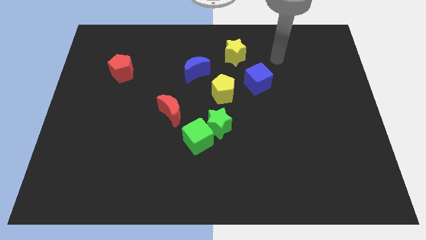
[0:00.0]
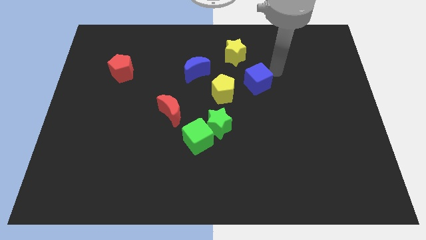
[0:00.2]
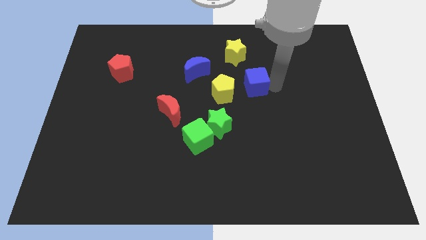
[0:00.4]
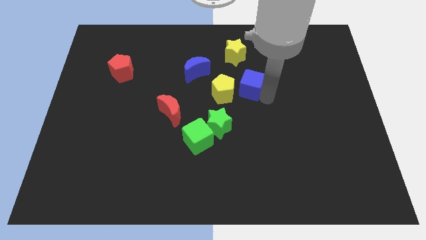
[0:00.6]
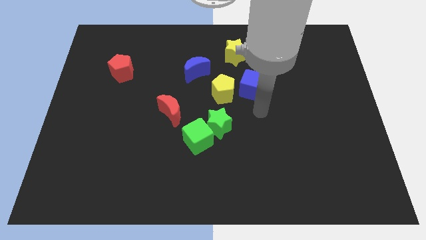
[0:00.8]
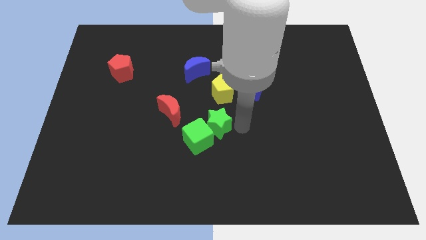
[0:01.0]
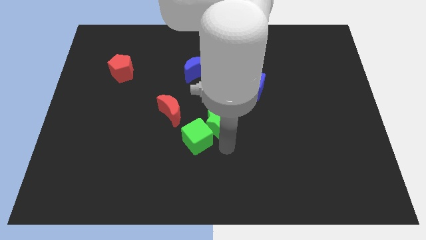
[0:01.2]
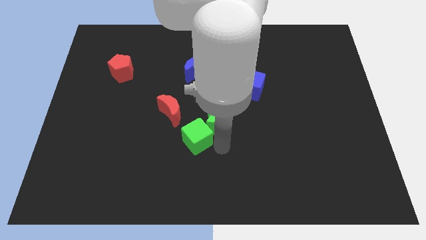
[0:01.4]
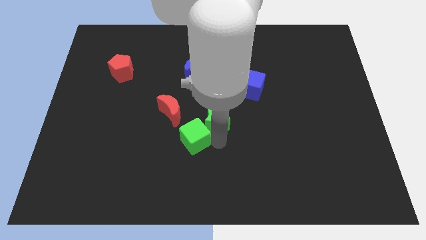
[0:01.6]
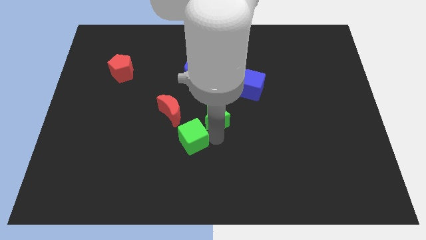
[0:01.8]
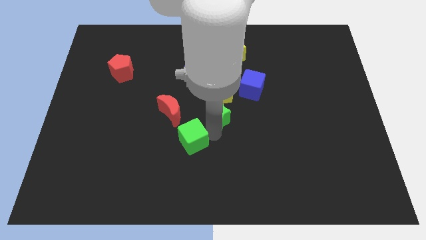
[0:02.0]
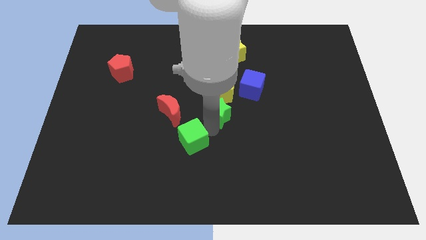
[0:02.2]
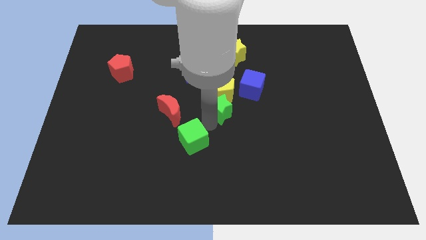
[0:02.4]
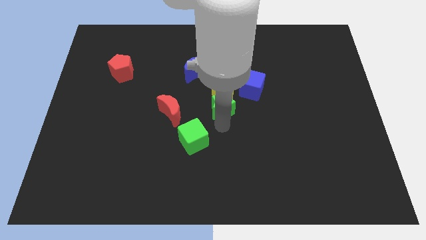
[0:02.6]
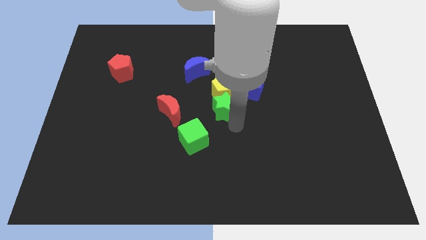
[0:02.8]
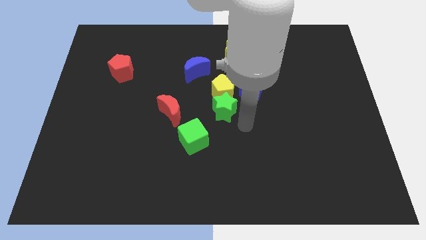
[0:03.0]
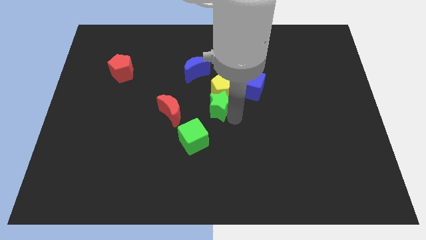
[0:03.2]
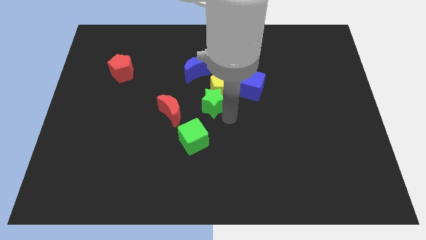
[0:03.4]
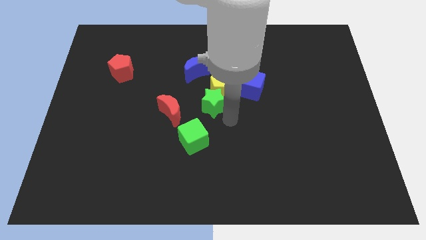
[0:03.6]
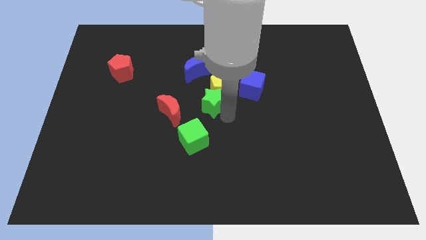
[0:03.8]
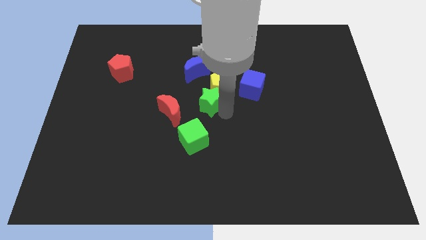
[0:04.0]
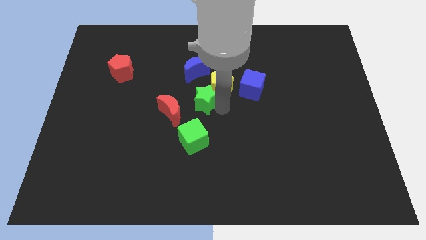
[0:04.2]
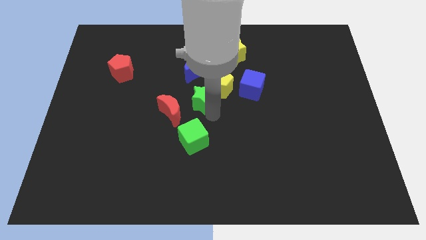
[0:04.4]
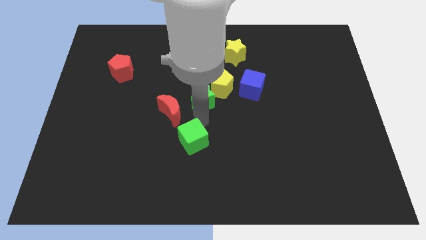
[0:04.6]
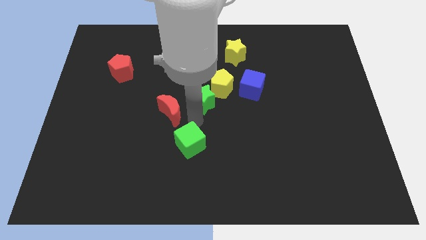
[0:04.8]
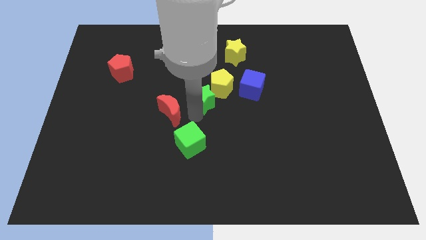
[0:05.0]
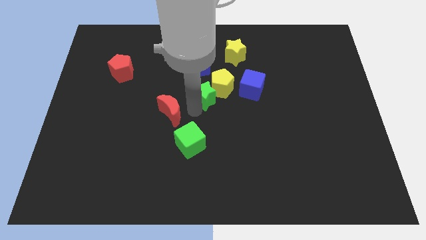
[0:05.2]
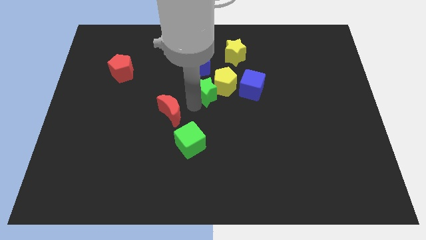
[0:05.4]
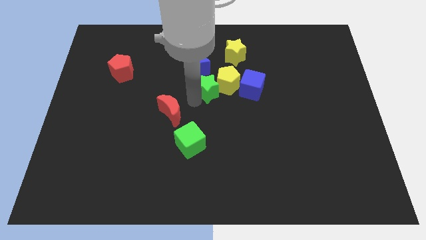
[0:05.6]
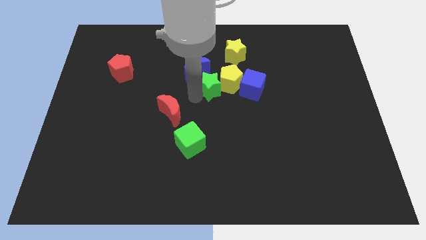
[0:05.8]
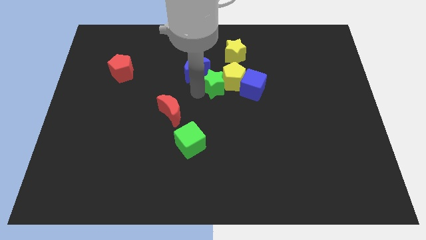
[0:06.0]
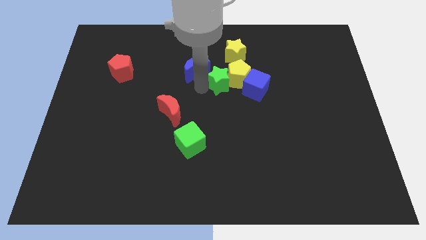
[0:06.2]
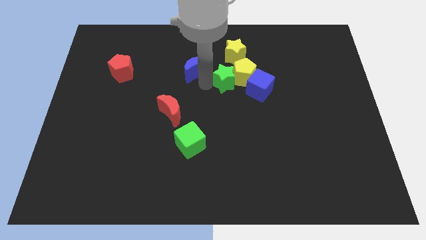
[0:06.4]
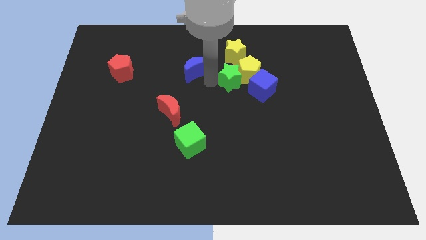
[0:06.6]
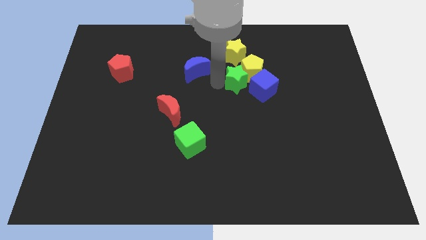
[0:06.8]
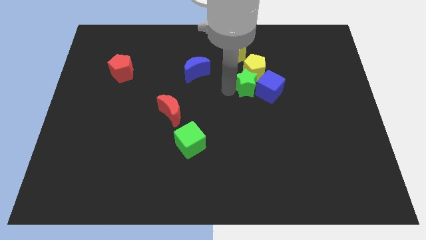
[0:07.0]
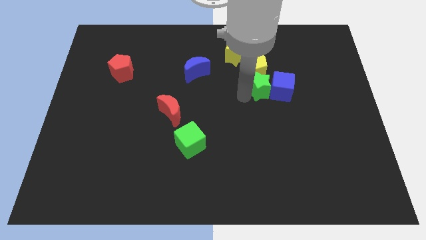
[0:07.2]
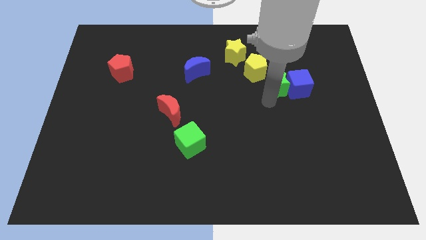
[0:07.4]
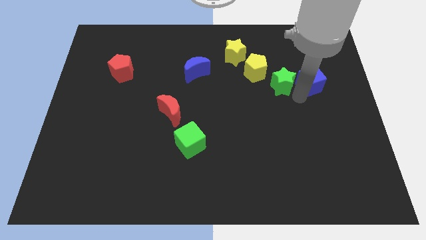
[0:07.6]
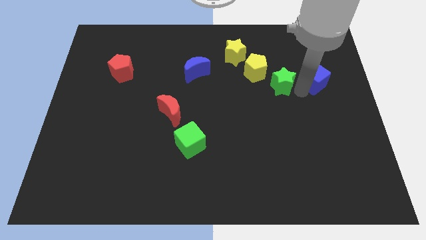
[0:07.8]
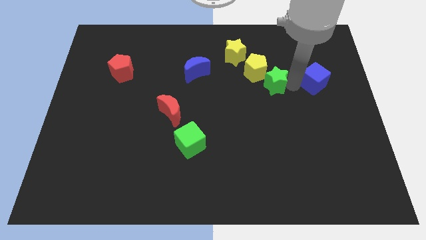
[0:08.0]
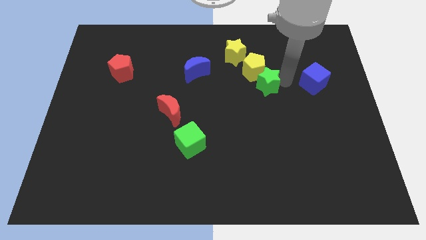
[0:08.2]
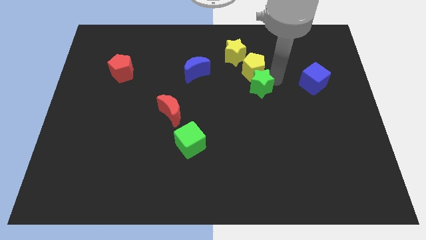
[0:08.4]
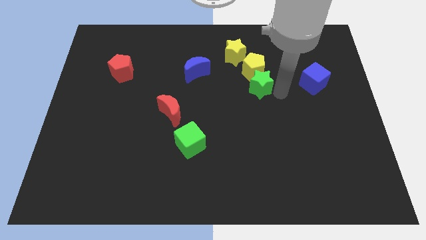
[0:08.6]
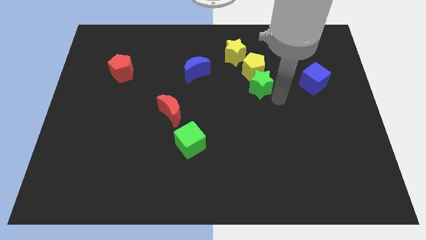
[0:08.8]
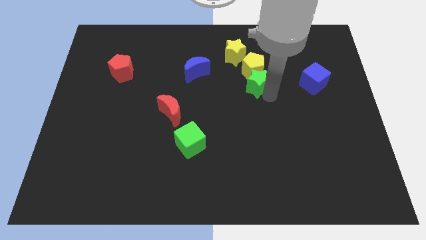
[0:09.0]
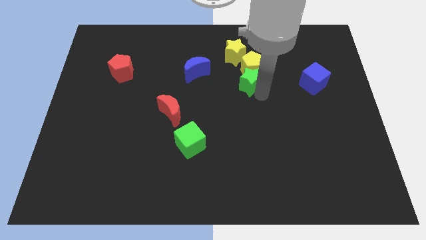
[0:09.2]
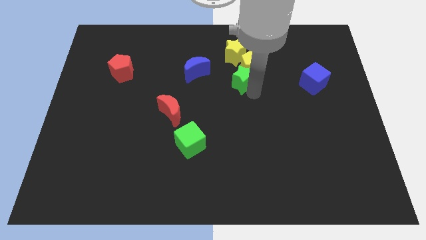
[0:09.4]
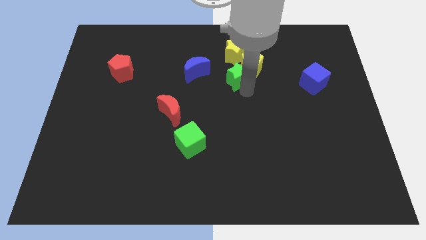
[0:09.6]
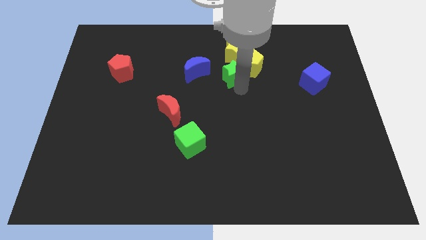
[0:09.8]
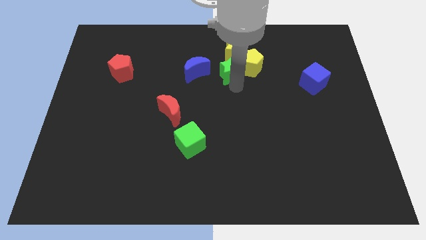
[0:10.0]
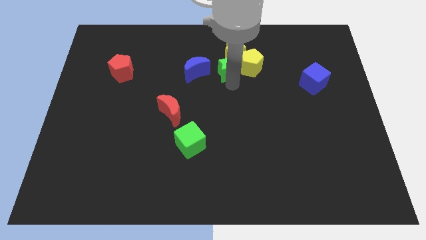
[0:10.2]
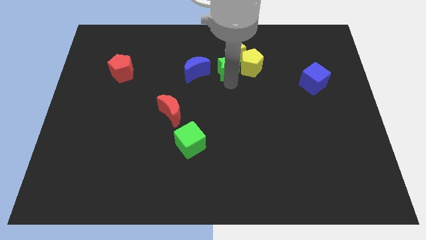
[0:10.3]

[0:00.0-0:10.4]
slide the green star towards the yellow star

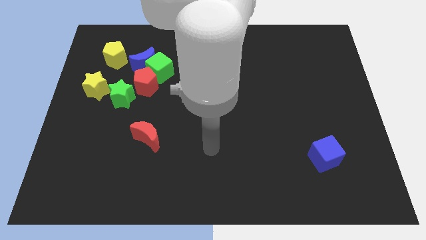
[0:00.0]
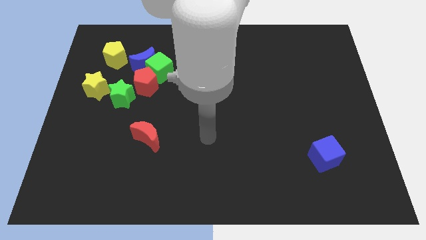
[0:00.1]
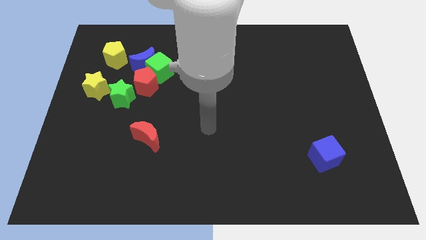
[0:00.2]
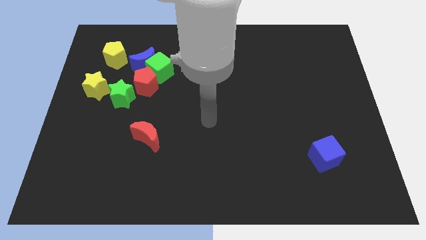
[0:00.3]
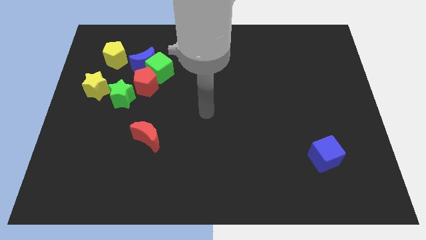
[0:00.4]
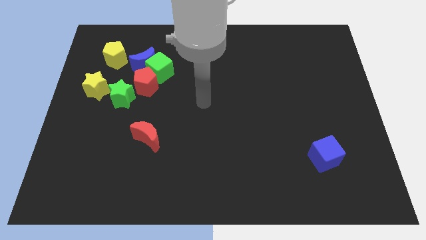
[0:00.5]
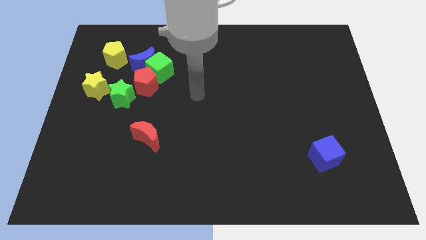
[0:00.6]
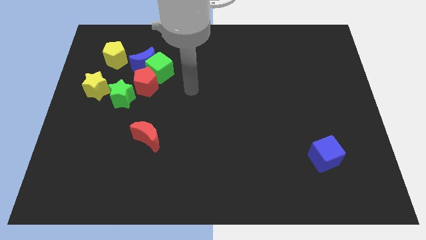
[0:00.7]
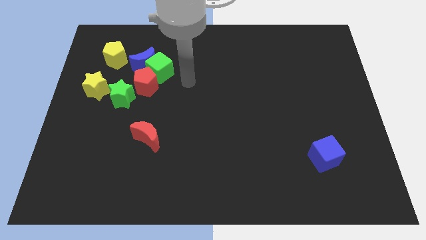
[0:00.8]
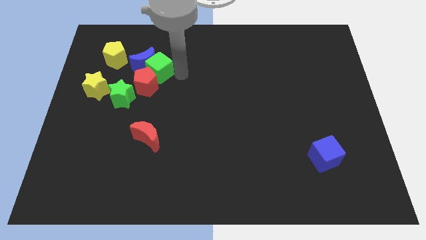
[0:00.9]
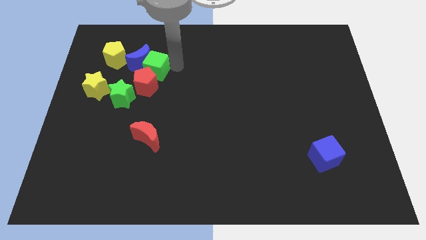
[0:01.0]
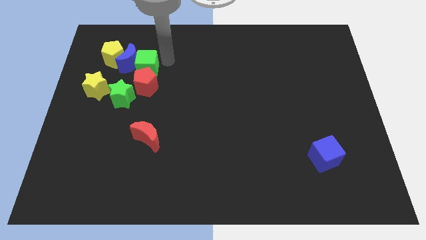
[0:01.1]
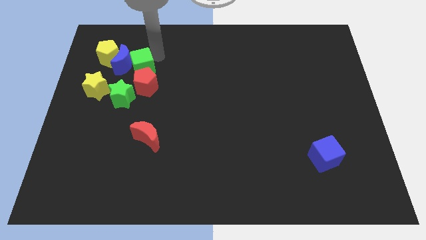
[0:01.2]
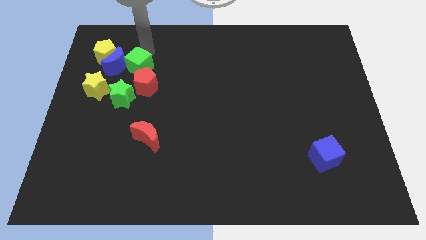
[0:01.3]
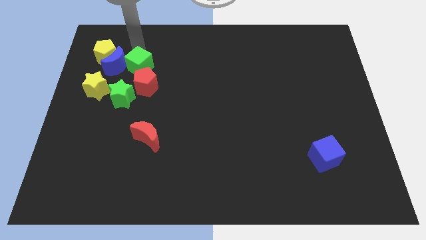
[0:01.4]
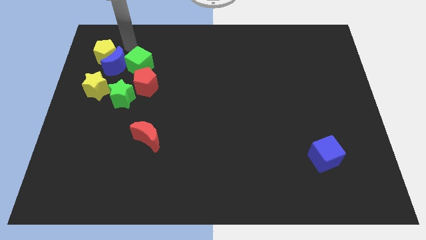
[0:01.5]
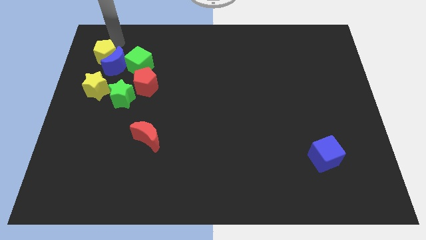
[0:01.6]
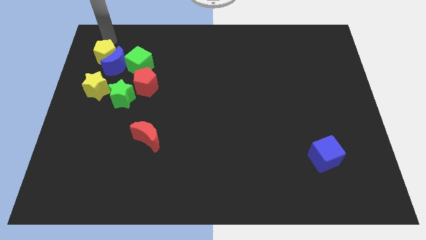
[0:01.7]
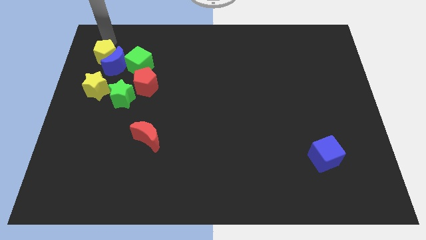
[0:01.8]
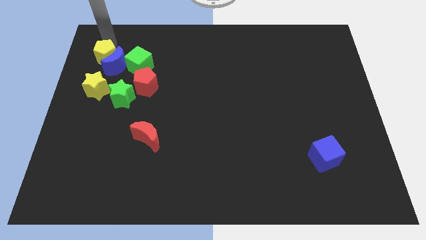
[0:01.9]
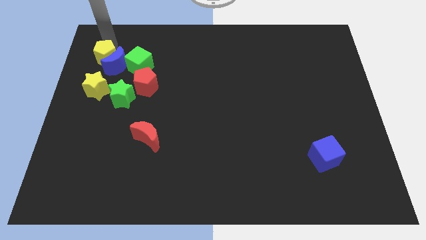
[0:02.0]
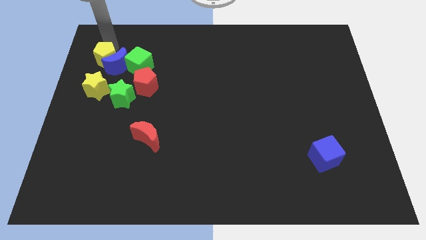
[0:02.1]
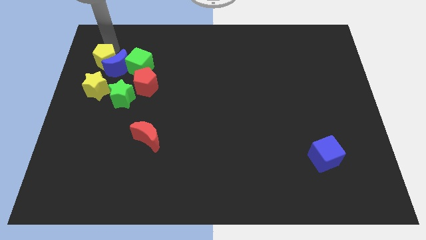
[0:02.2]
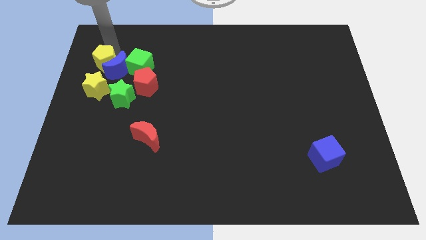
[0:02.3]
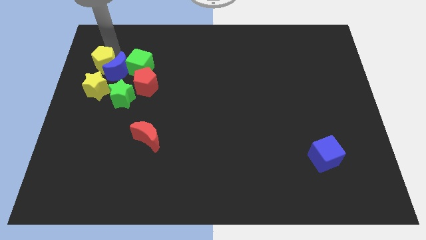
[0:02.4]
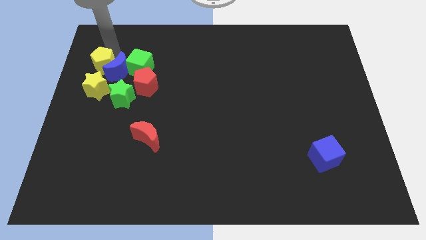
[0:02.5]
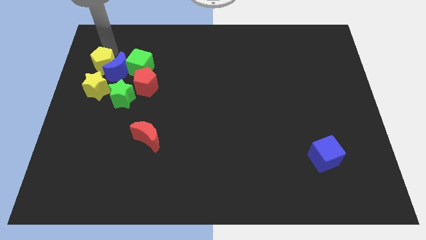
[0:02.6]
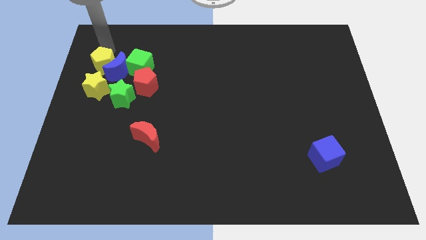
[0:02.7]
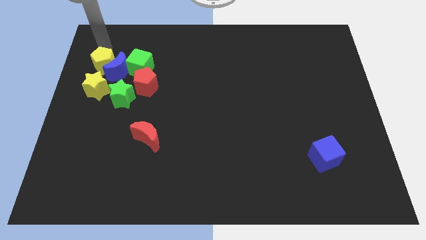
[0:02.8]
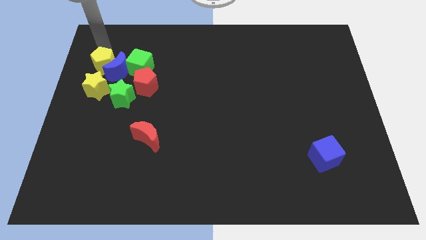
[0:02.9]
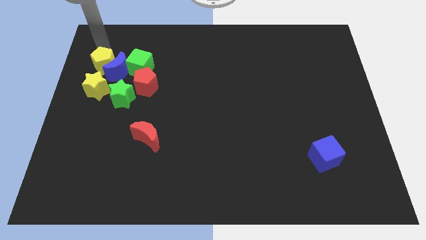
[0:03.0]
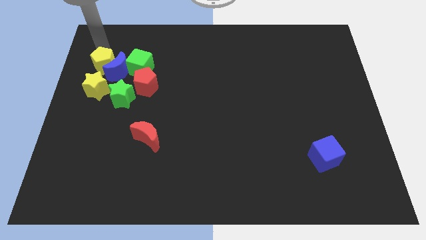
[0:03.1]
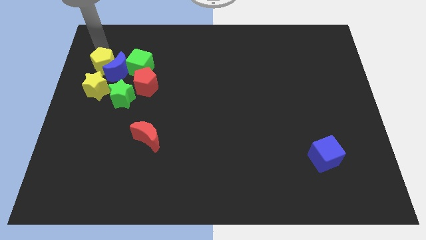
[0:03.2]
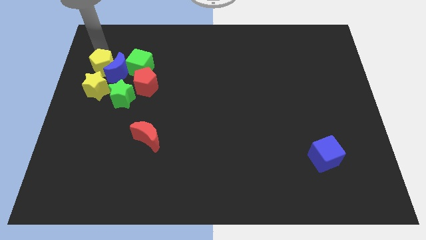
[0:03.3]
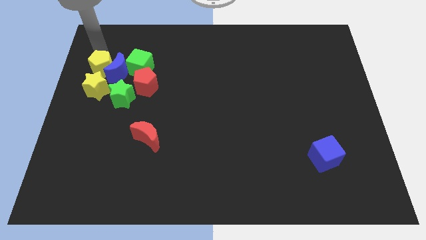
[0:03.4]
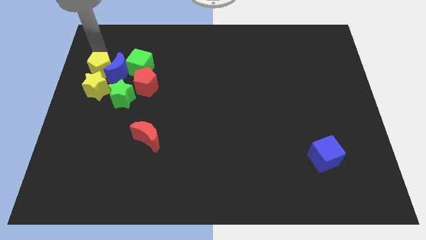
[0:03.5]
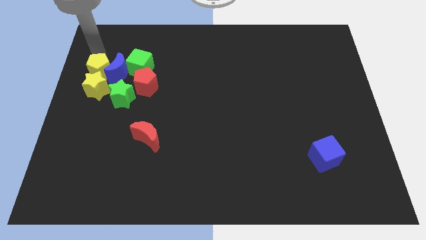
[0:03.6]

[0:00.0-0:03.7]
slide the yellow pentagon close to the yellow star
